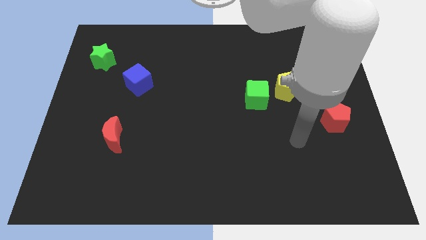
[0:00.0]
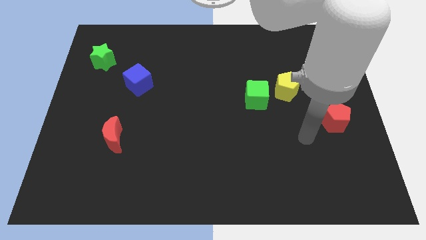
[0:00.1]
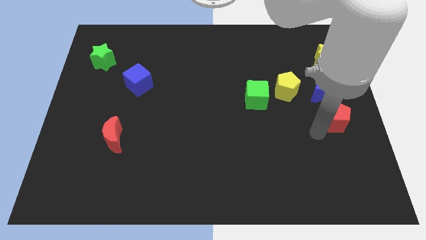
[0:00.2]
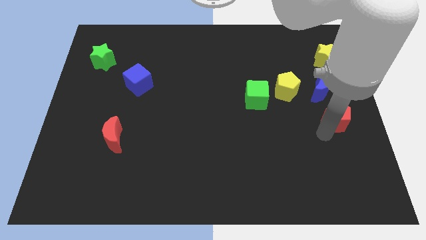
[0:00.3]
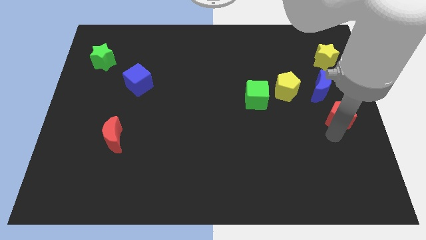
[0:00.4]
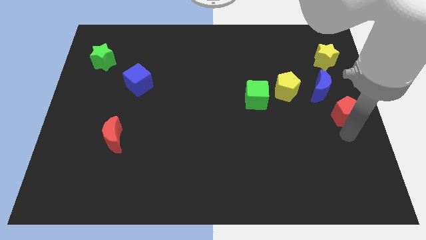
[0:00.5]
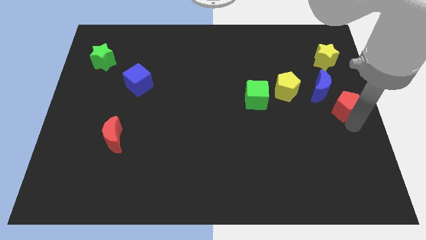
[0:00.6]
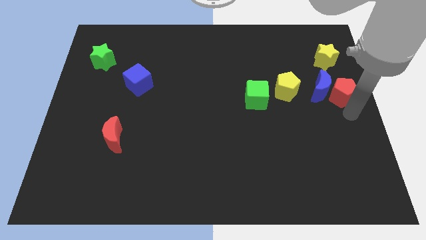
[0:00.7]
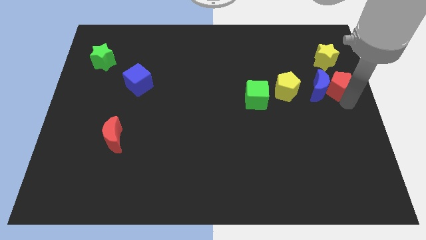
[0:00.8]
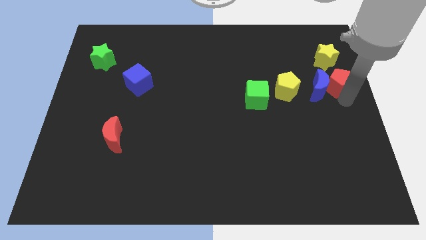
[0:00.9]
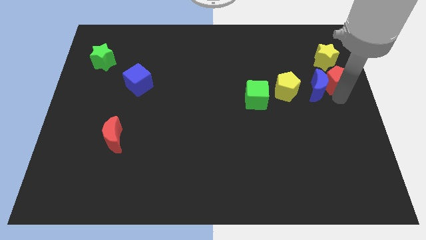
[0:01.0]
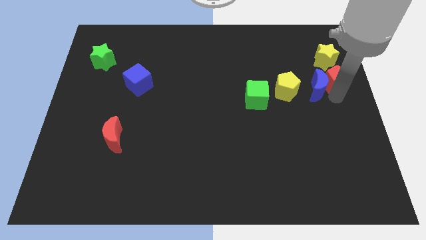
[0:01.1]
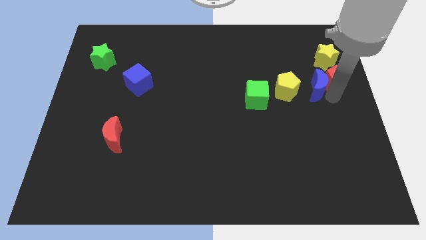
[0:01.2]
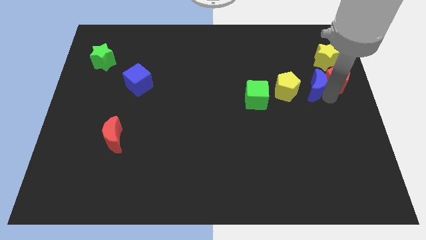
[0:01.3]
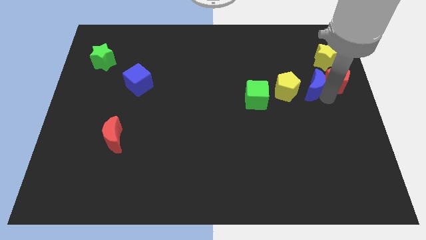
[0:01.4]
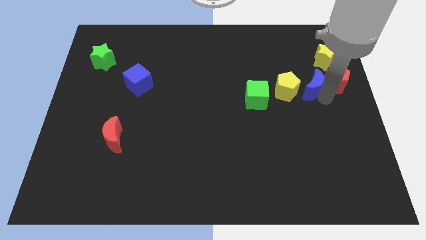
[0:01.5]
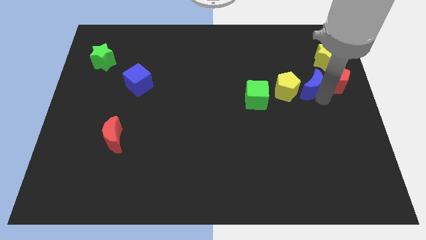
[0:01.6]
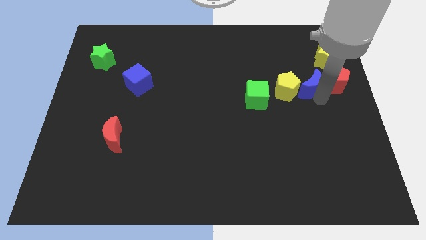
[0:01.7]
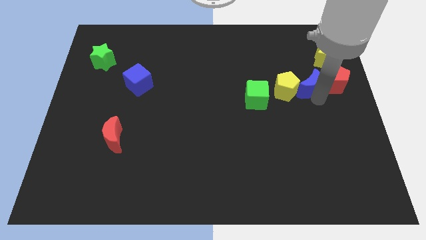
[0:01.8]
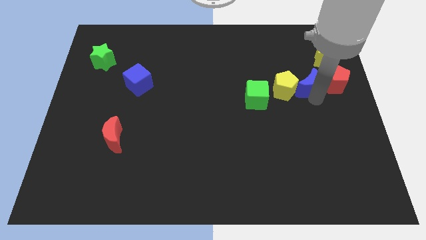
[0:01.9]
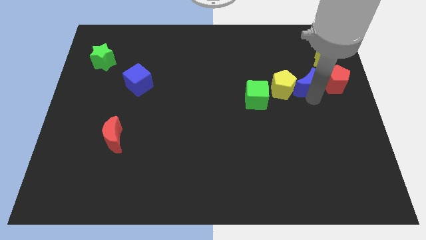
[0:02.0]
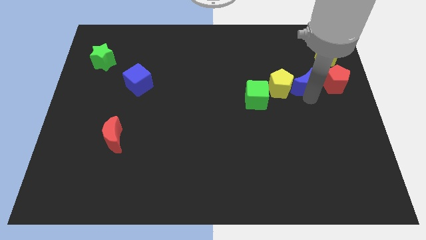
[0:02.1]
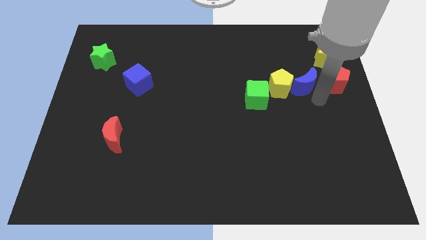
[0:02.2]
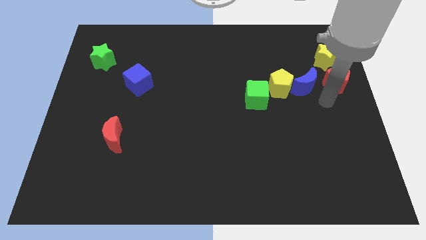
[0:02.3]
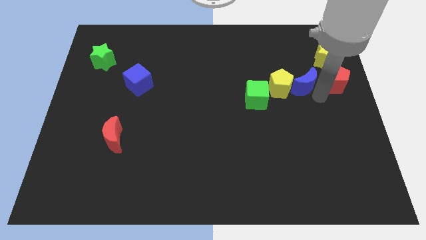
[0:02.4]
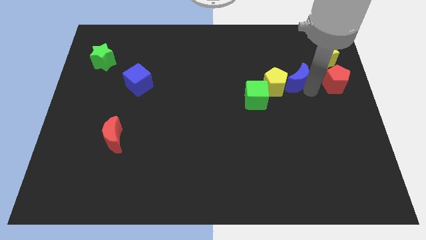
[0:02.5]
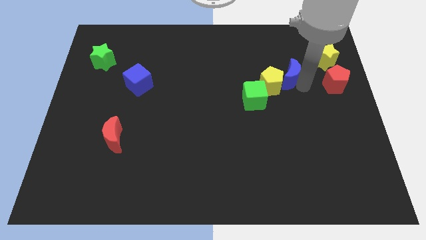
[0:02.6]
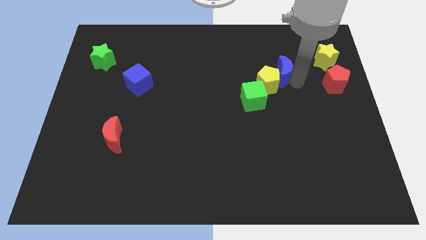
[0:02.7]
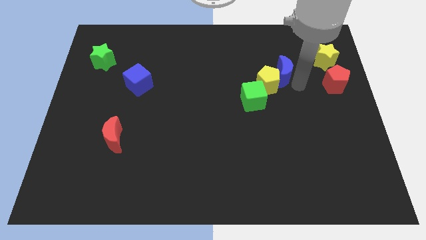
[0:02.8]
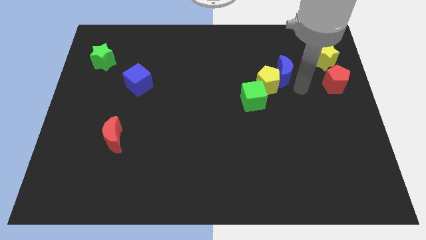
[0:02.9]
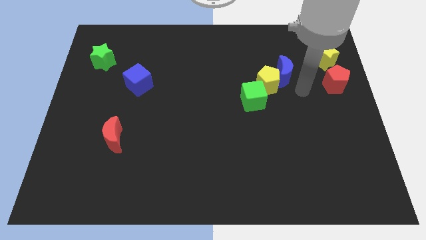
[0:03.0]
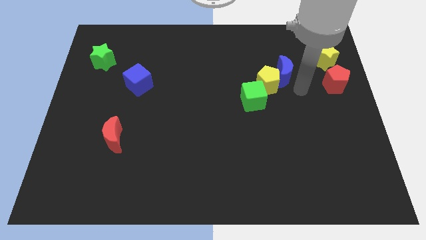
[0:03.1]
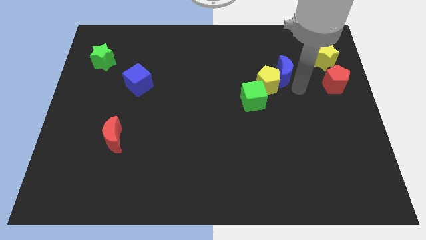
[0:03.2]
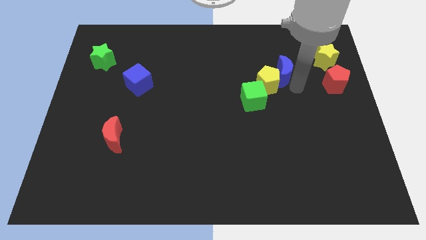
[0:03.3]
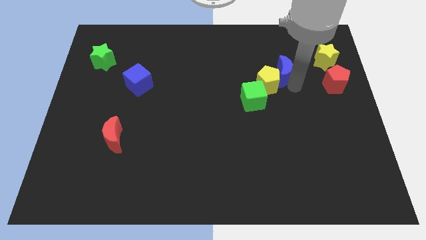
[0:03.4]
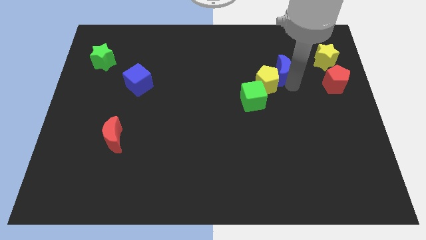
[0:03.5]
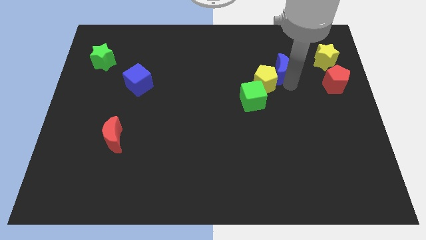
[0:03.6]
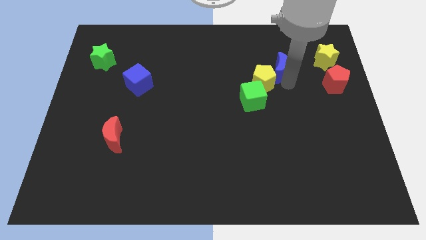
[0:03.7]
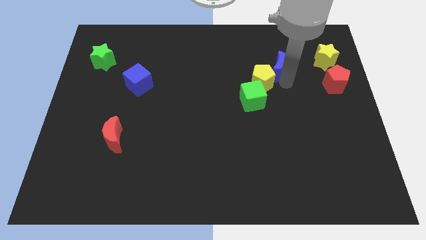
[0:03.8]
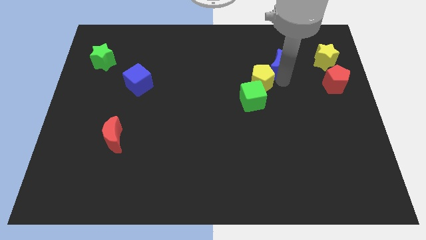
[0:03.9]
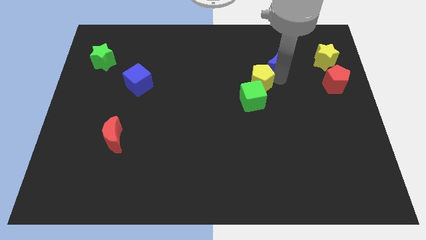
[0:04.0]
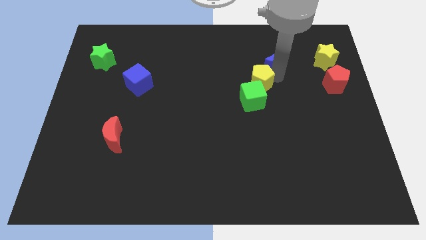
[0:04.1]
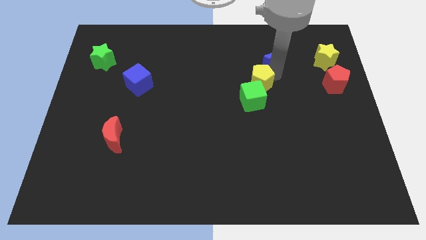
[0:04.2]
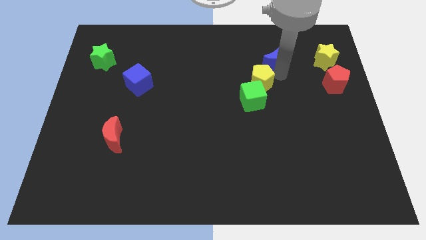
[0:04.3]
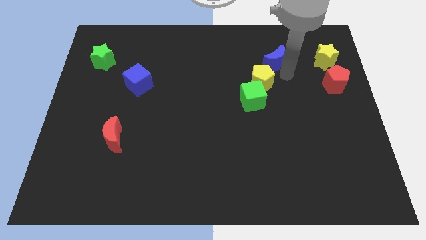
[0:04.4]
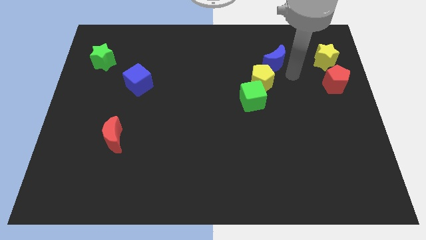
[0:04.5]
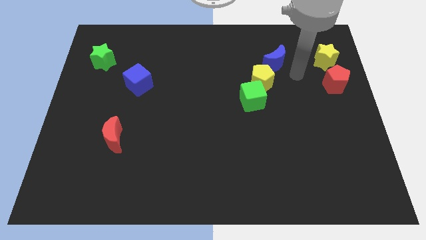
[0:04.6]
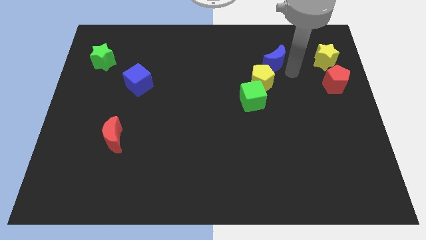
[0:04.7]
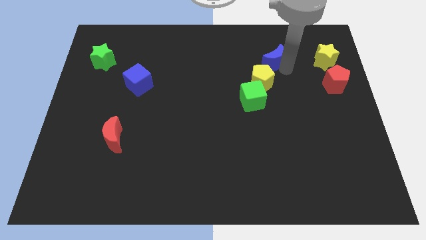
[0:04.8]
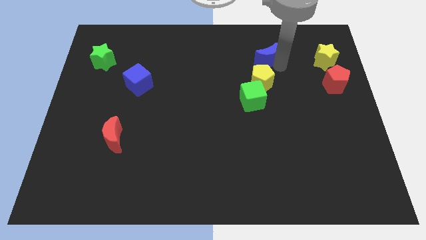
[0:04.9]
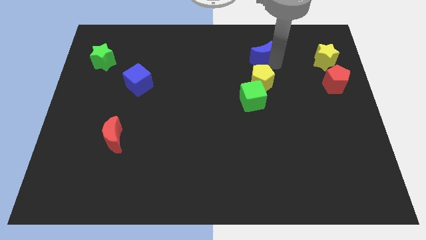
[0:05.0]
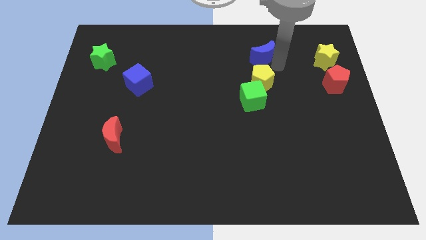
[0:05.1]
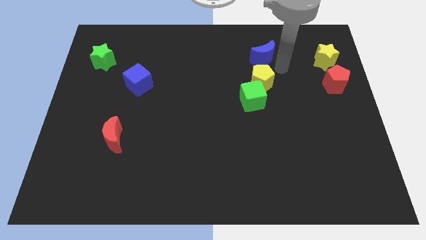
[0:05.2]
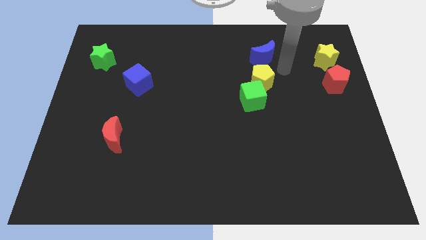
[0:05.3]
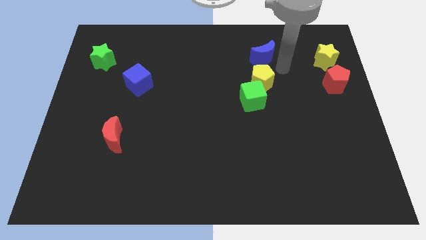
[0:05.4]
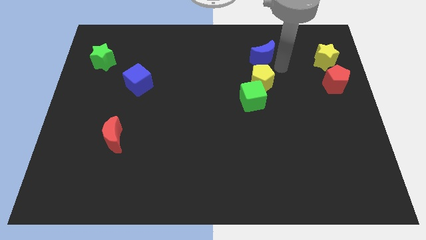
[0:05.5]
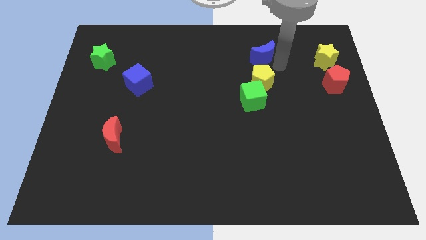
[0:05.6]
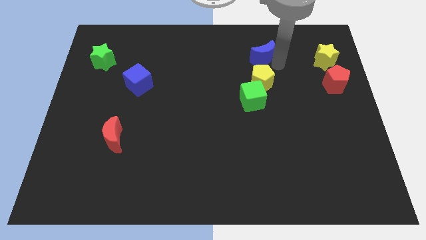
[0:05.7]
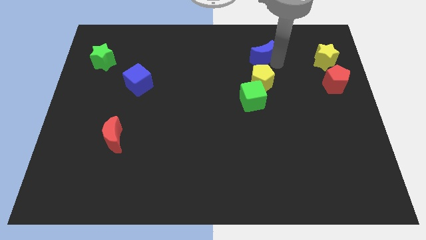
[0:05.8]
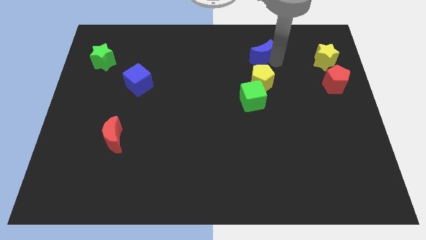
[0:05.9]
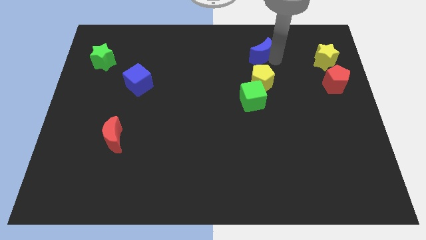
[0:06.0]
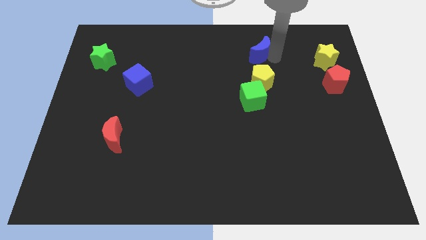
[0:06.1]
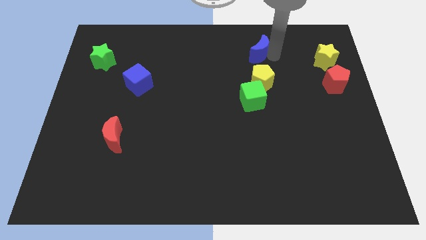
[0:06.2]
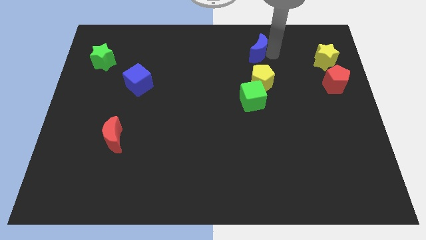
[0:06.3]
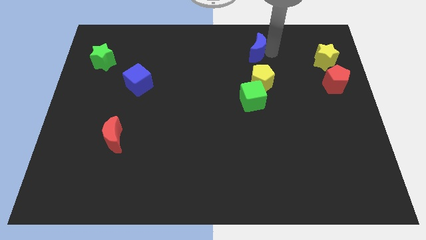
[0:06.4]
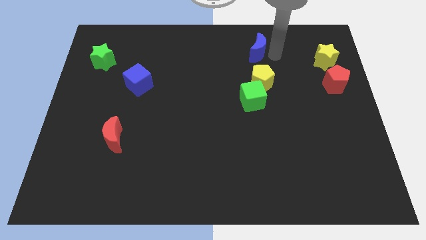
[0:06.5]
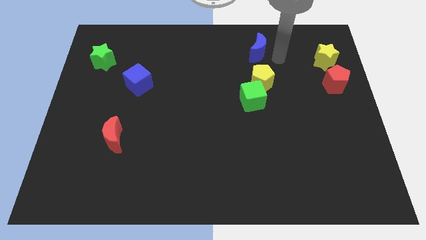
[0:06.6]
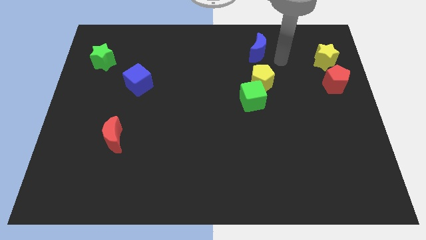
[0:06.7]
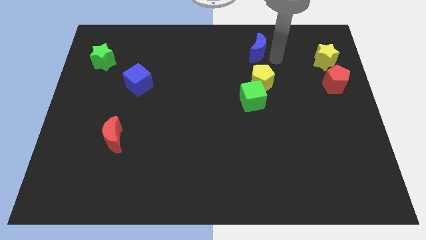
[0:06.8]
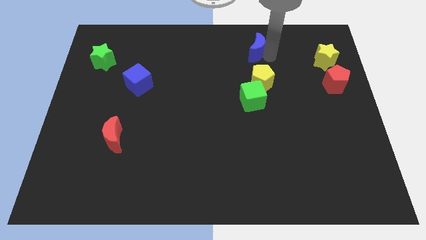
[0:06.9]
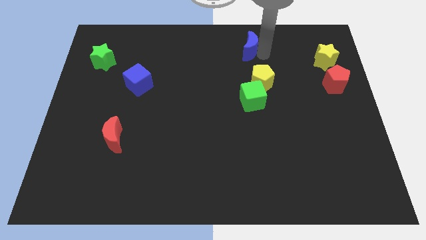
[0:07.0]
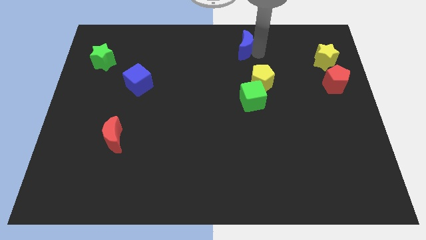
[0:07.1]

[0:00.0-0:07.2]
move the blue moon to the towards your base

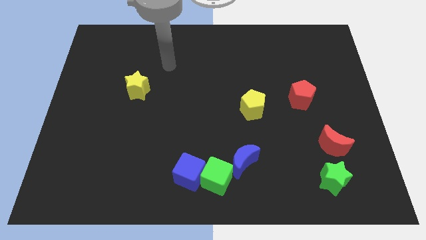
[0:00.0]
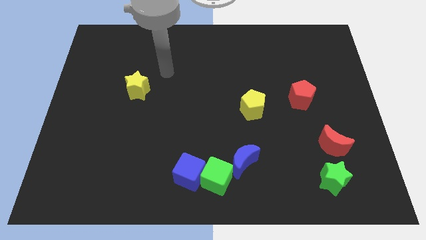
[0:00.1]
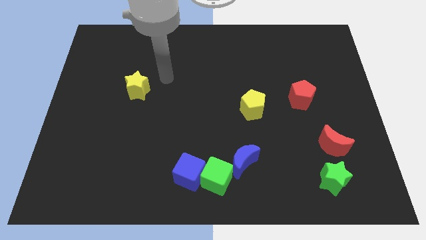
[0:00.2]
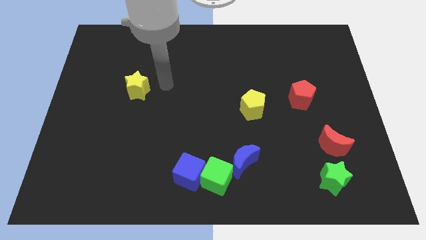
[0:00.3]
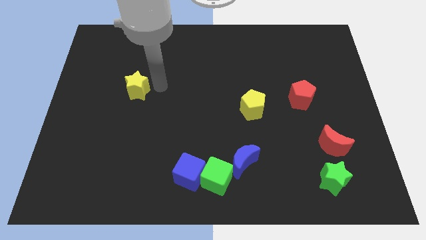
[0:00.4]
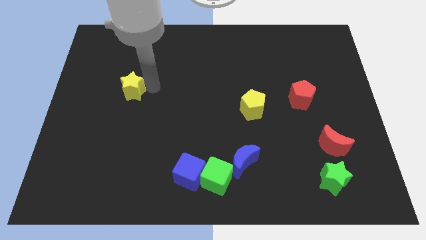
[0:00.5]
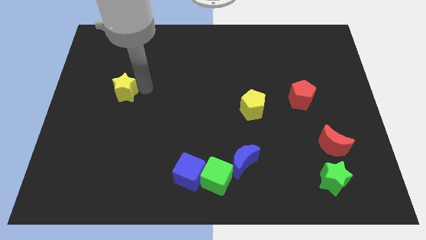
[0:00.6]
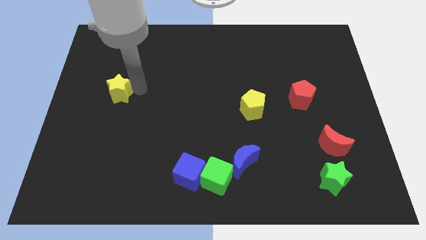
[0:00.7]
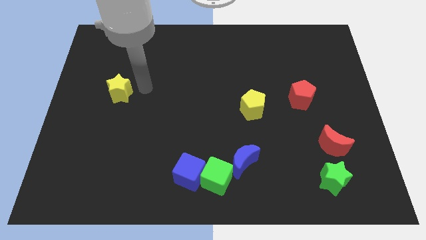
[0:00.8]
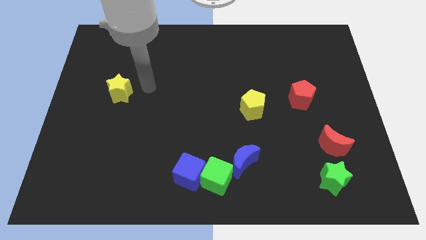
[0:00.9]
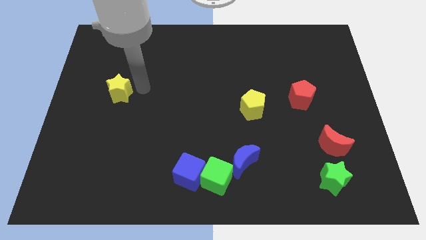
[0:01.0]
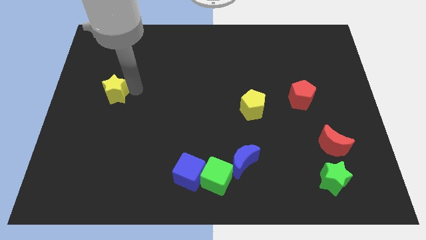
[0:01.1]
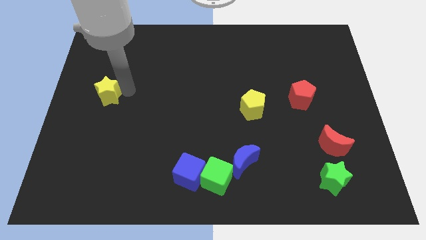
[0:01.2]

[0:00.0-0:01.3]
slide the yellow star to the left side
